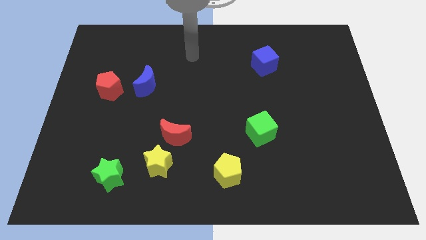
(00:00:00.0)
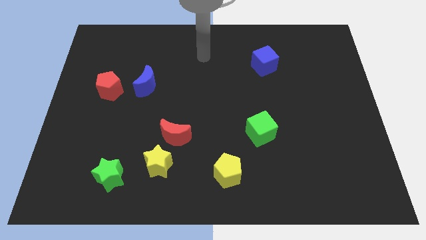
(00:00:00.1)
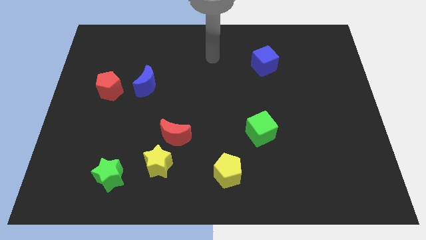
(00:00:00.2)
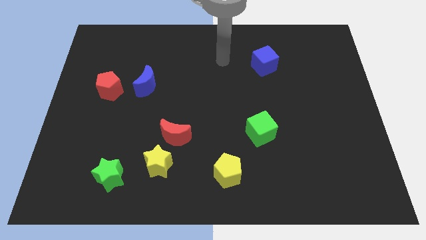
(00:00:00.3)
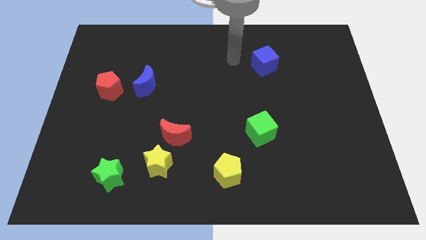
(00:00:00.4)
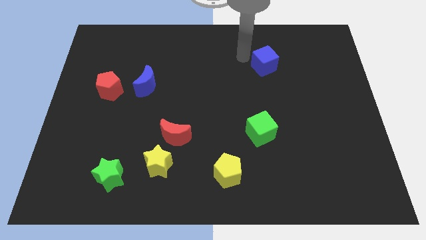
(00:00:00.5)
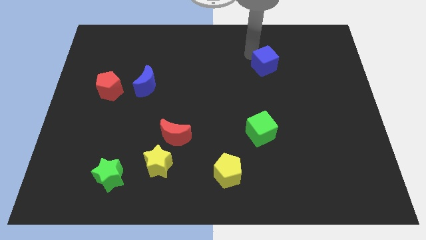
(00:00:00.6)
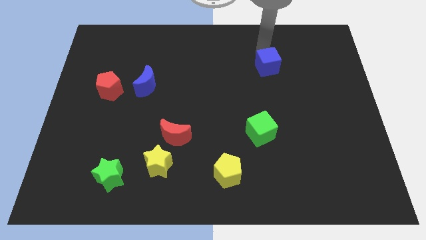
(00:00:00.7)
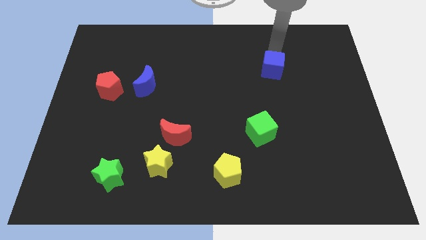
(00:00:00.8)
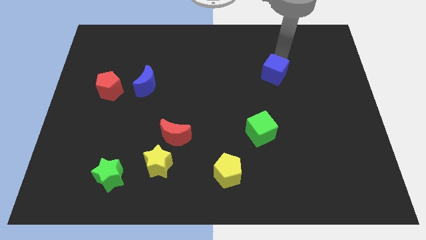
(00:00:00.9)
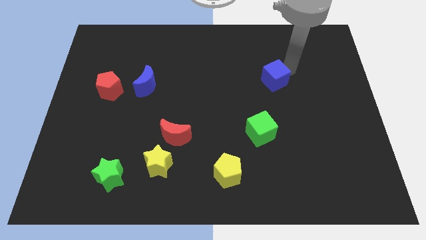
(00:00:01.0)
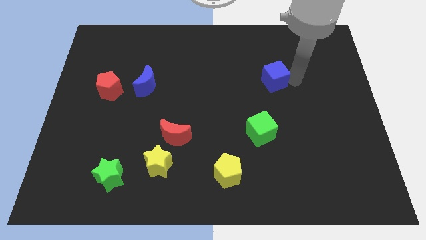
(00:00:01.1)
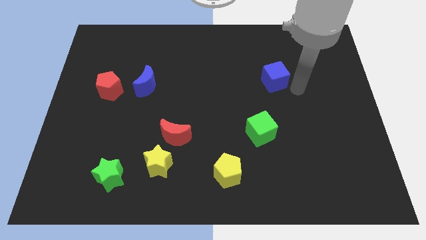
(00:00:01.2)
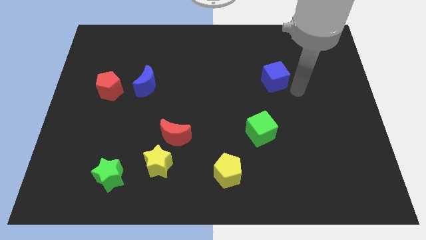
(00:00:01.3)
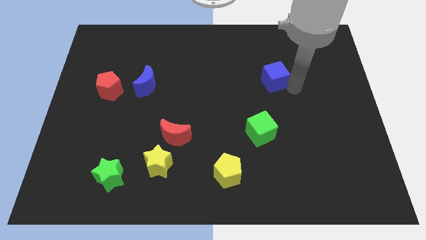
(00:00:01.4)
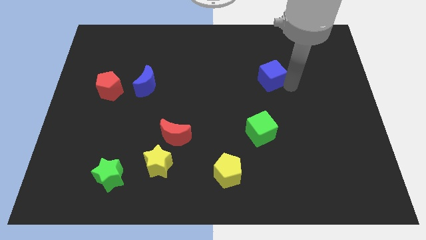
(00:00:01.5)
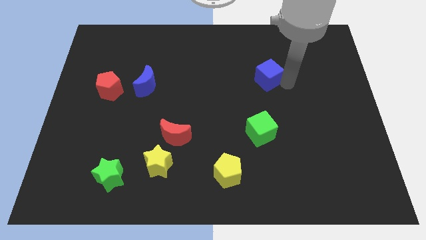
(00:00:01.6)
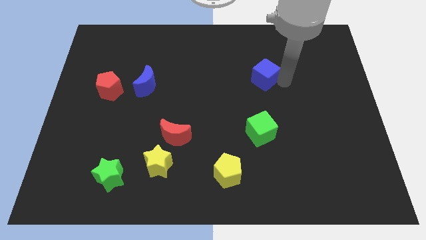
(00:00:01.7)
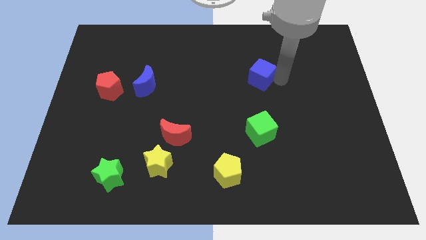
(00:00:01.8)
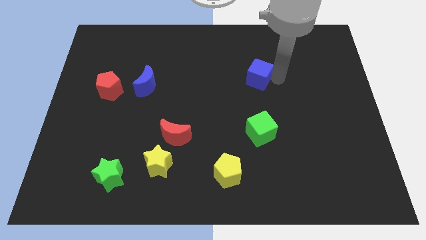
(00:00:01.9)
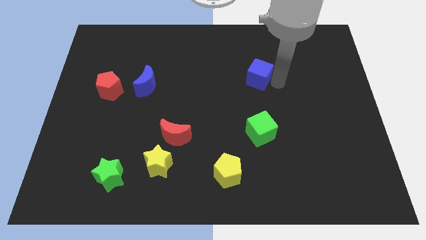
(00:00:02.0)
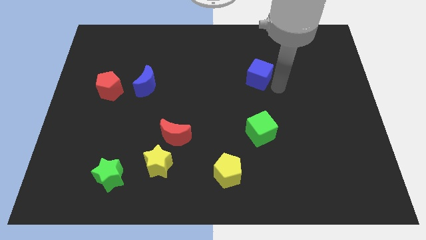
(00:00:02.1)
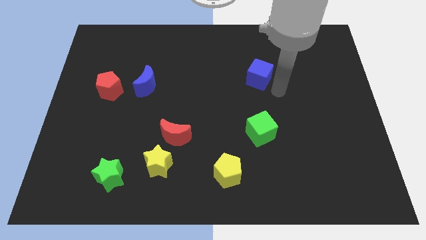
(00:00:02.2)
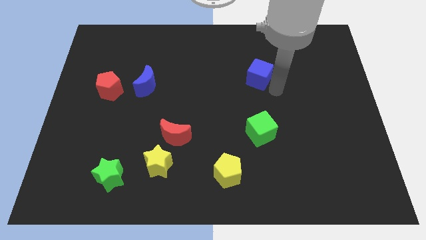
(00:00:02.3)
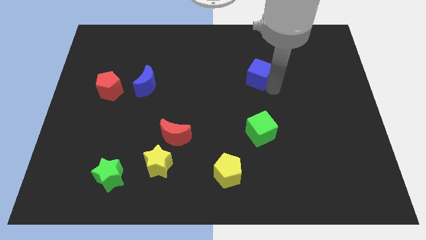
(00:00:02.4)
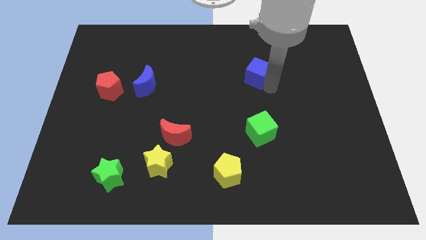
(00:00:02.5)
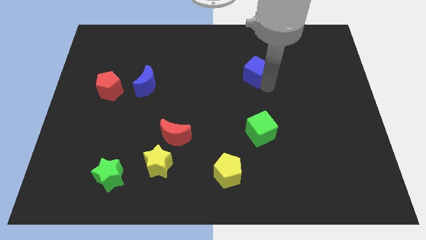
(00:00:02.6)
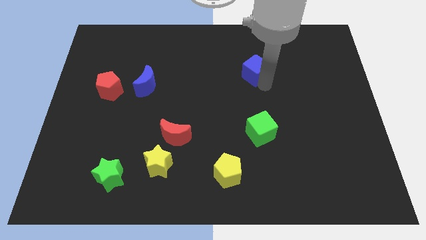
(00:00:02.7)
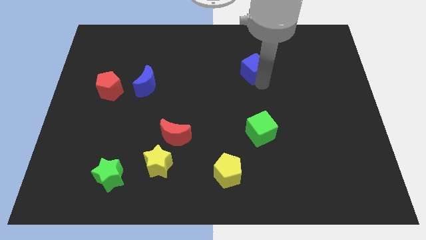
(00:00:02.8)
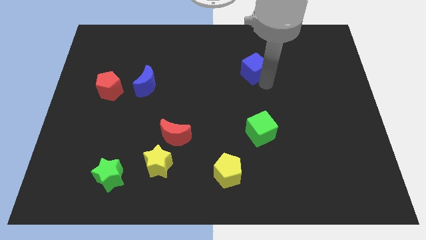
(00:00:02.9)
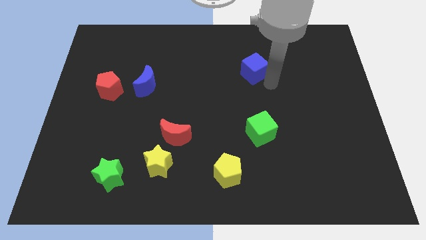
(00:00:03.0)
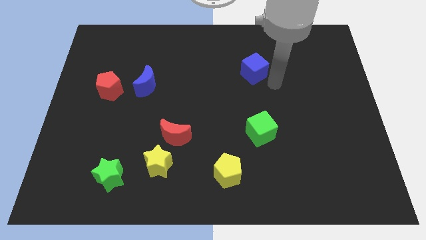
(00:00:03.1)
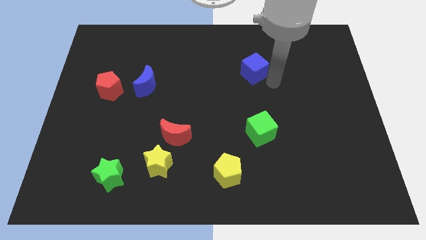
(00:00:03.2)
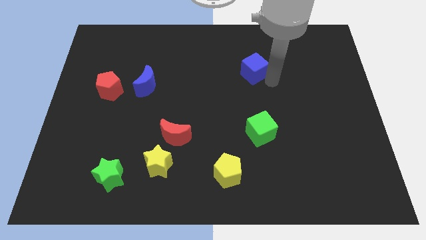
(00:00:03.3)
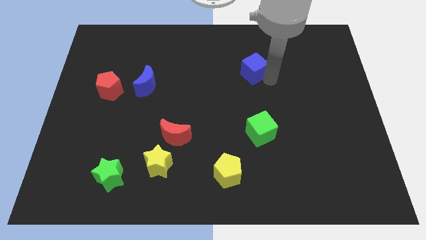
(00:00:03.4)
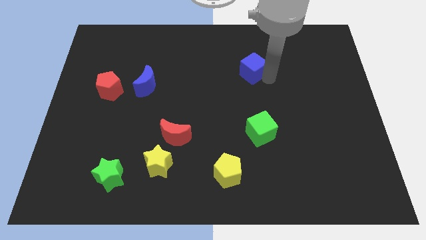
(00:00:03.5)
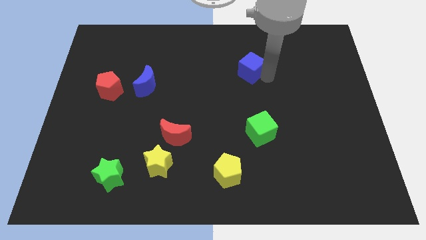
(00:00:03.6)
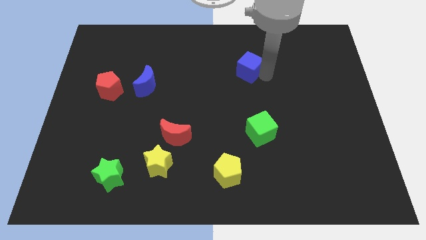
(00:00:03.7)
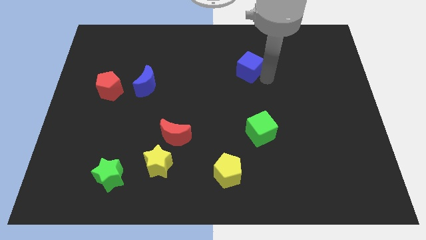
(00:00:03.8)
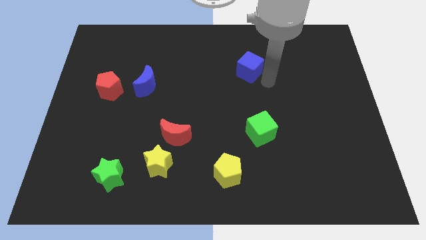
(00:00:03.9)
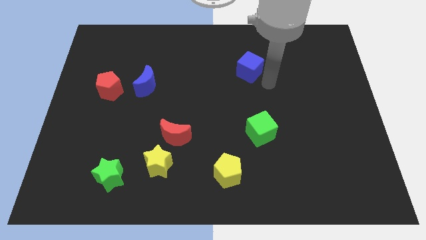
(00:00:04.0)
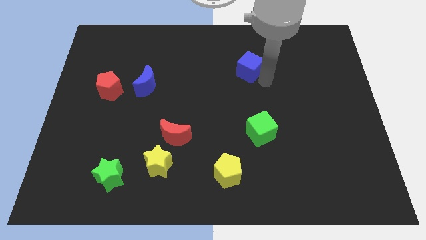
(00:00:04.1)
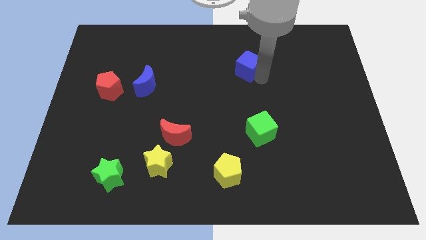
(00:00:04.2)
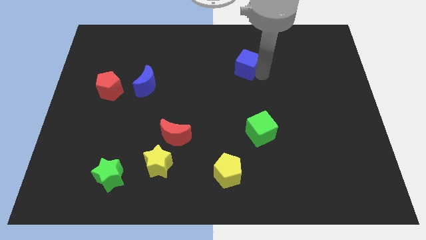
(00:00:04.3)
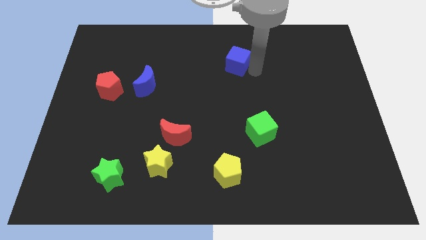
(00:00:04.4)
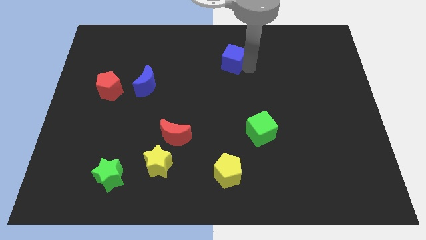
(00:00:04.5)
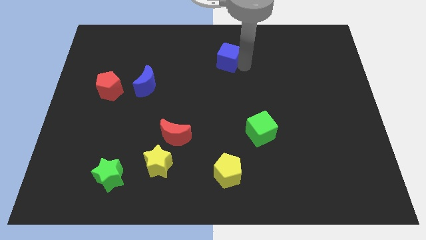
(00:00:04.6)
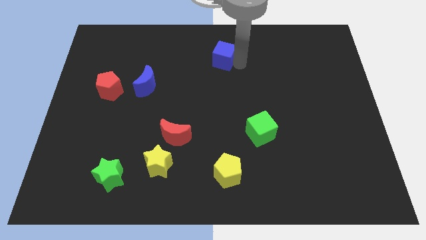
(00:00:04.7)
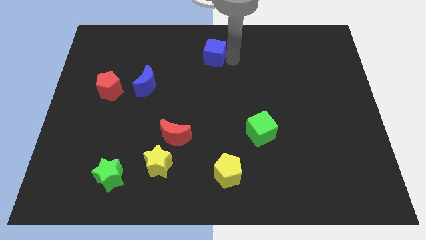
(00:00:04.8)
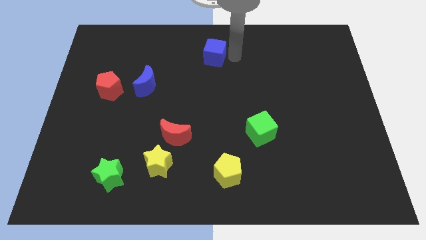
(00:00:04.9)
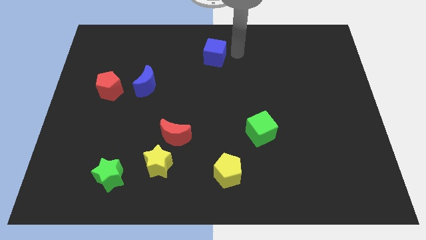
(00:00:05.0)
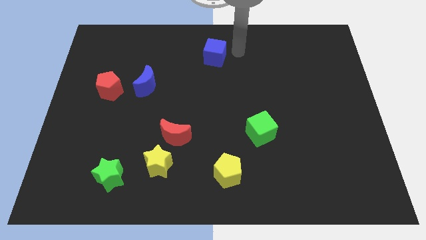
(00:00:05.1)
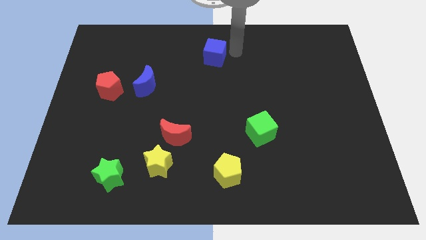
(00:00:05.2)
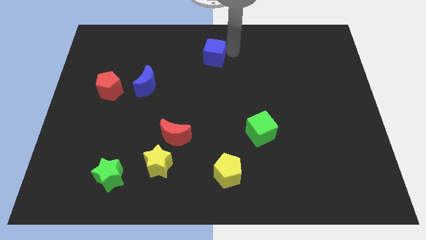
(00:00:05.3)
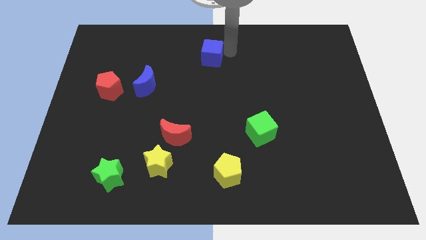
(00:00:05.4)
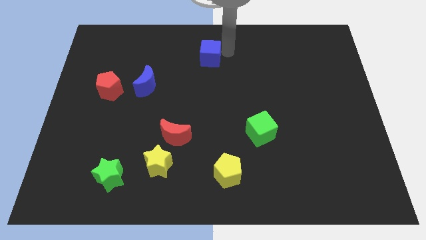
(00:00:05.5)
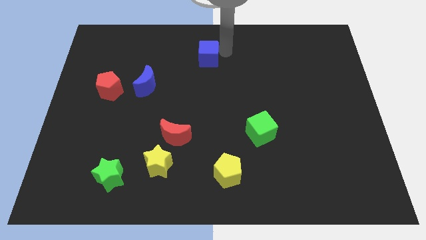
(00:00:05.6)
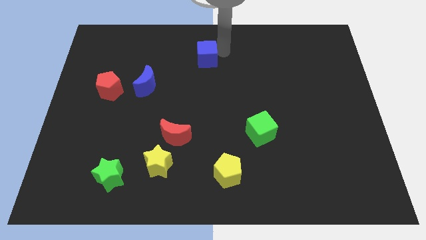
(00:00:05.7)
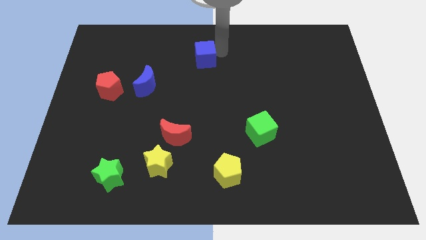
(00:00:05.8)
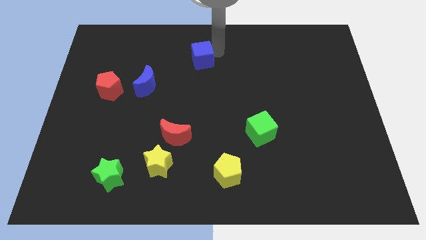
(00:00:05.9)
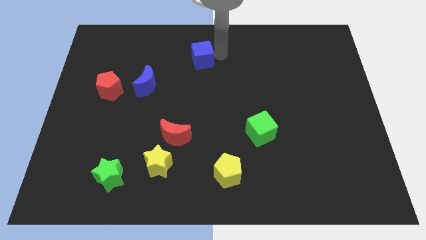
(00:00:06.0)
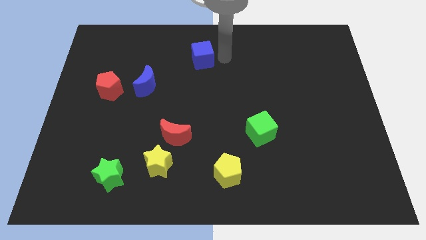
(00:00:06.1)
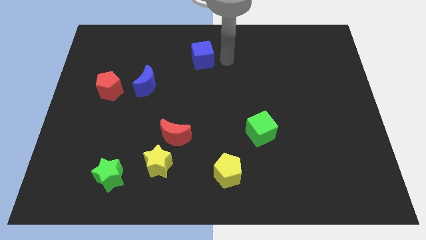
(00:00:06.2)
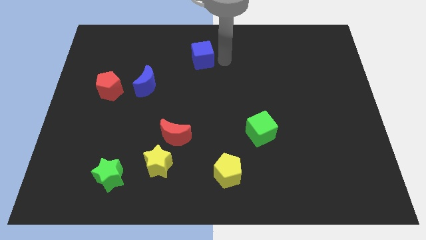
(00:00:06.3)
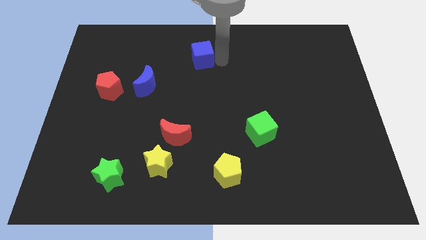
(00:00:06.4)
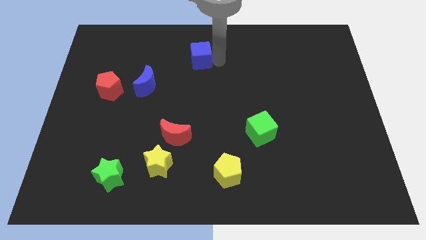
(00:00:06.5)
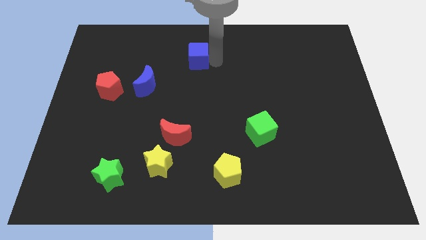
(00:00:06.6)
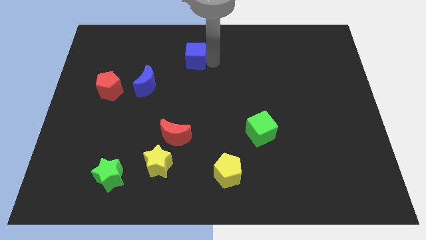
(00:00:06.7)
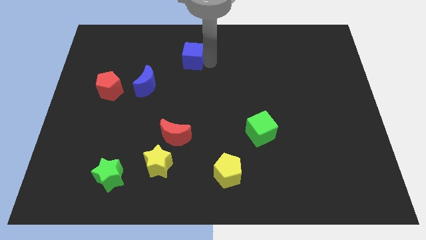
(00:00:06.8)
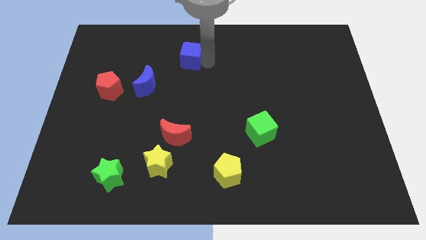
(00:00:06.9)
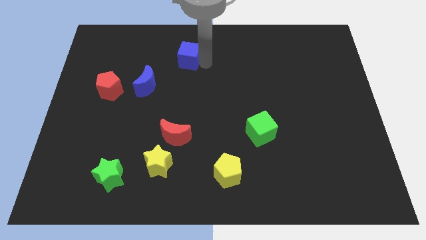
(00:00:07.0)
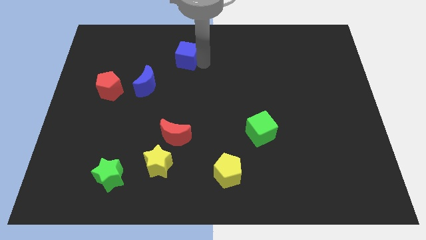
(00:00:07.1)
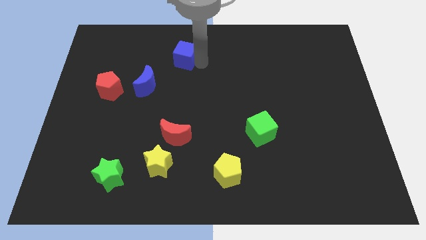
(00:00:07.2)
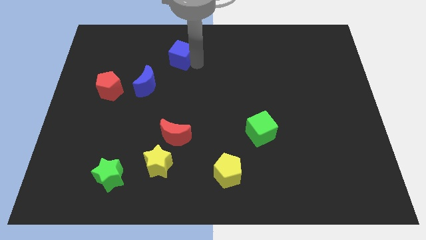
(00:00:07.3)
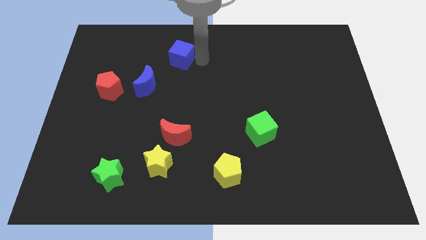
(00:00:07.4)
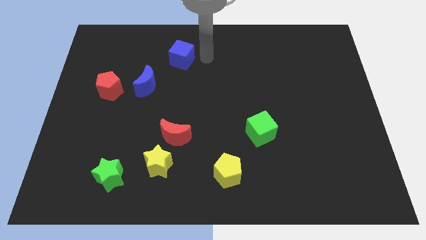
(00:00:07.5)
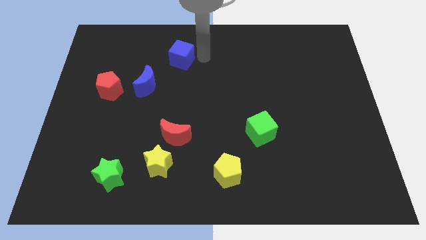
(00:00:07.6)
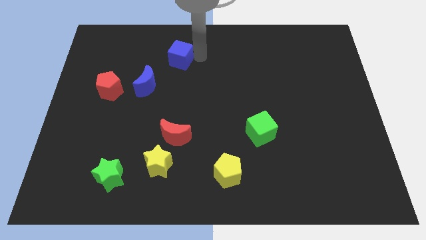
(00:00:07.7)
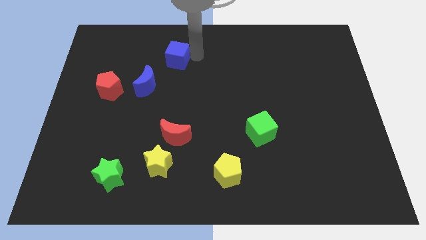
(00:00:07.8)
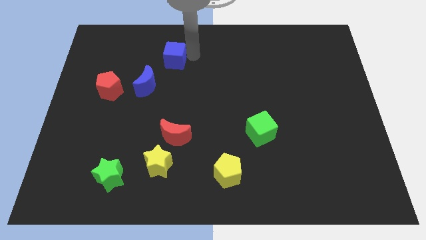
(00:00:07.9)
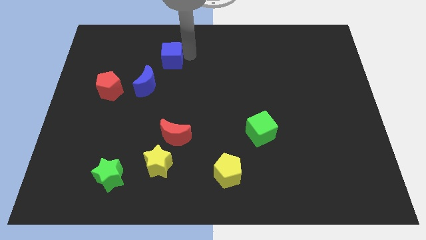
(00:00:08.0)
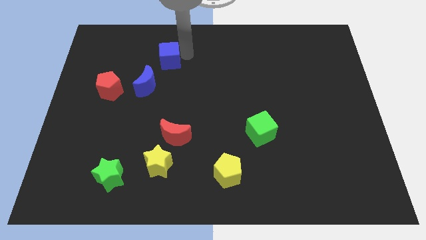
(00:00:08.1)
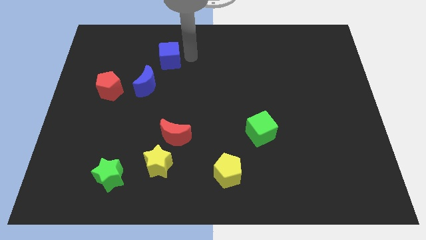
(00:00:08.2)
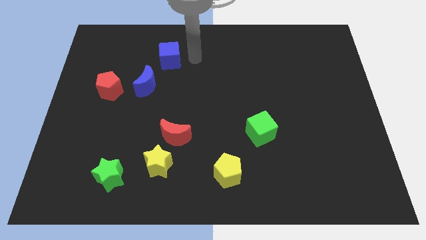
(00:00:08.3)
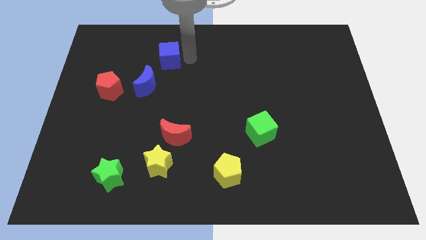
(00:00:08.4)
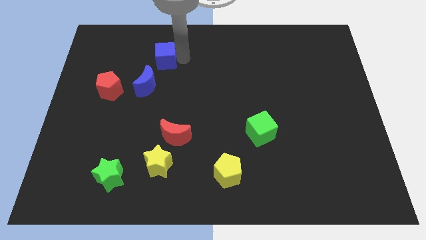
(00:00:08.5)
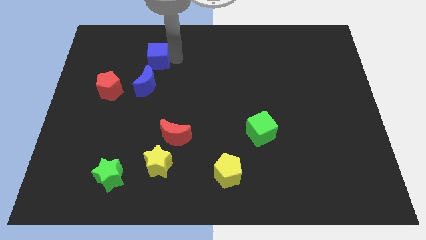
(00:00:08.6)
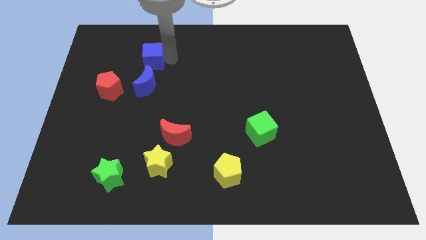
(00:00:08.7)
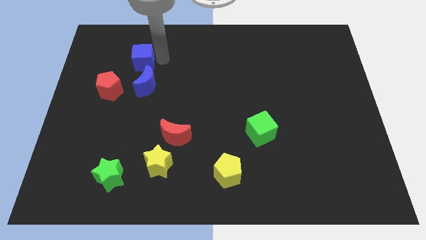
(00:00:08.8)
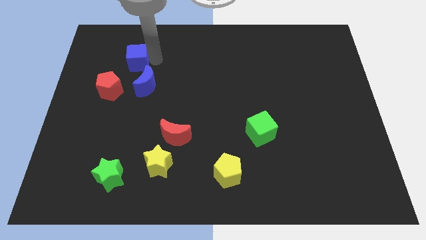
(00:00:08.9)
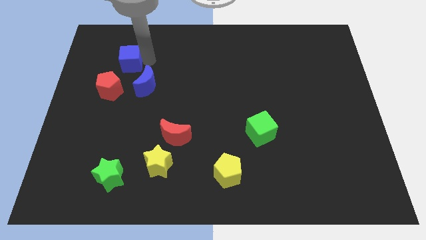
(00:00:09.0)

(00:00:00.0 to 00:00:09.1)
slide the blue cube to the top of the red pentagon
